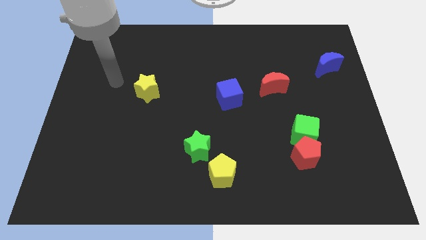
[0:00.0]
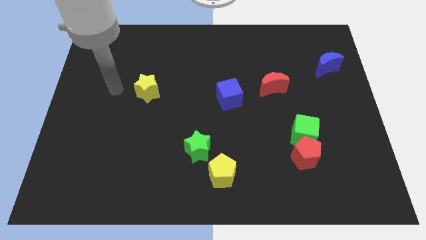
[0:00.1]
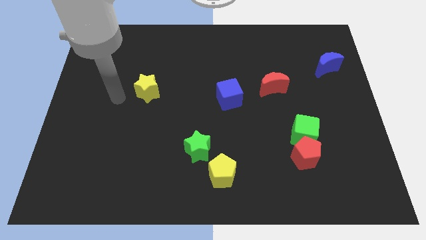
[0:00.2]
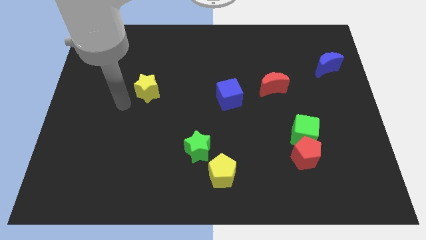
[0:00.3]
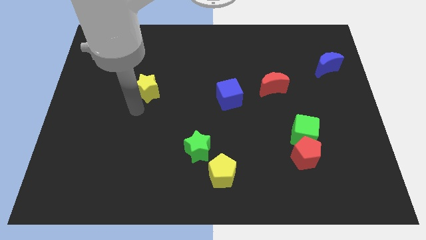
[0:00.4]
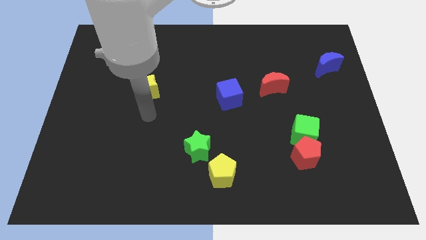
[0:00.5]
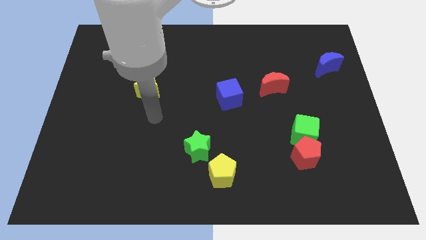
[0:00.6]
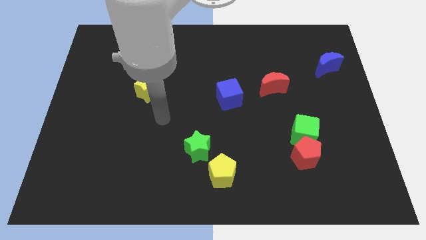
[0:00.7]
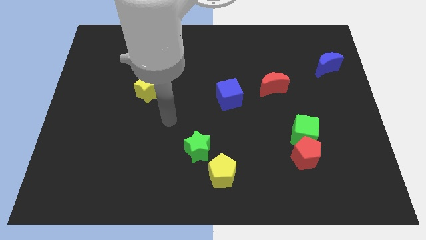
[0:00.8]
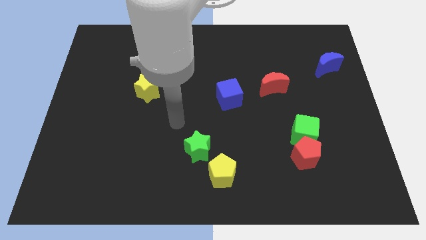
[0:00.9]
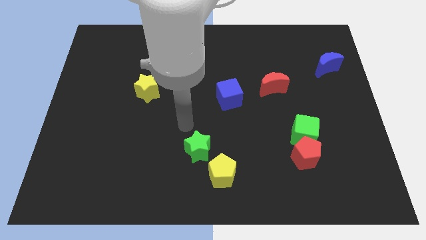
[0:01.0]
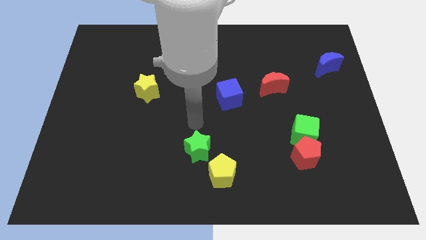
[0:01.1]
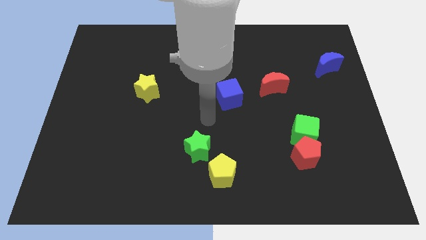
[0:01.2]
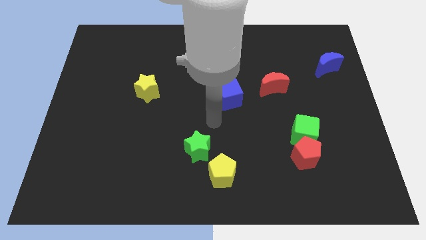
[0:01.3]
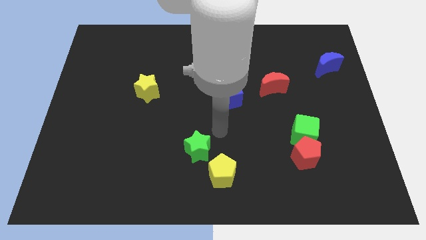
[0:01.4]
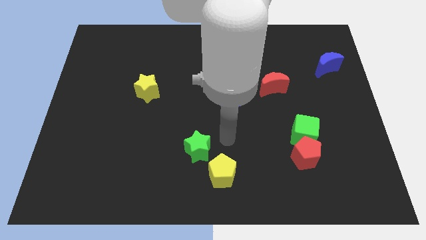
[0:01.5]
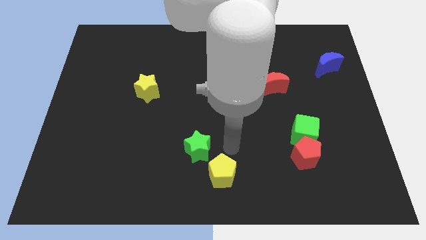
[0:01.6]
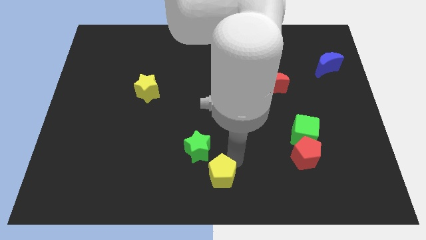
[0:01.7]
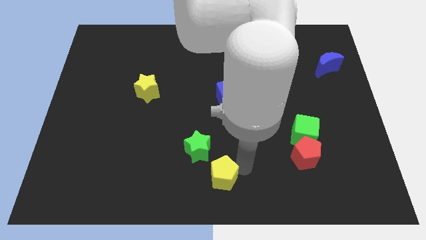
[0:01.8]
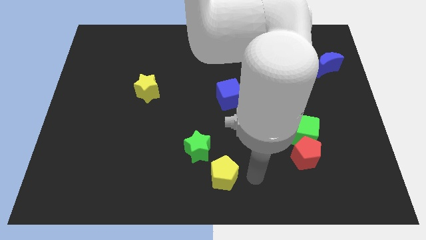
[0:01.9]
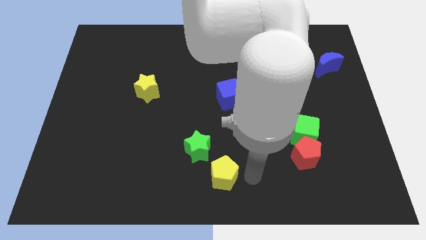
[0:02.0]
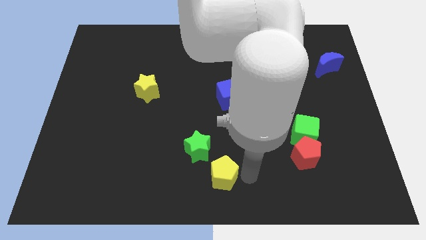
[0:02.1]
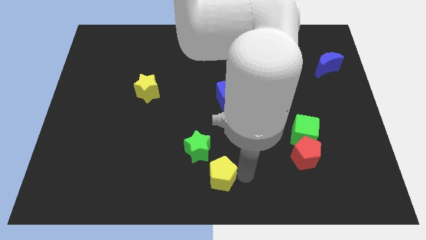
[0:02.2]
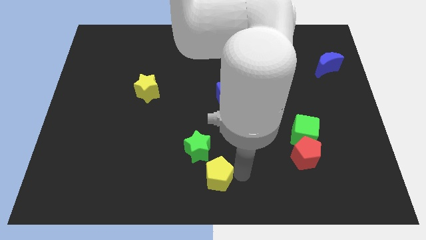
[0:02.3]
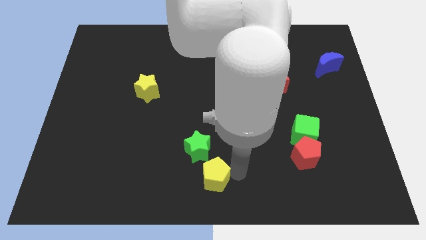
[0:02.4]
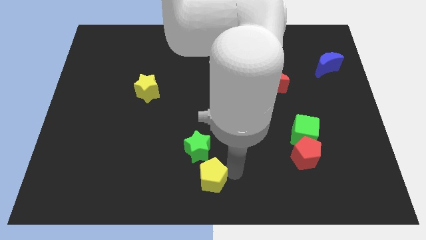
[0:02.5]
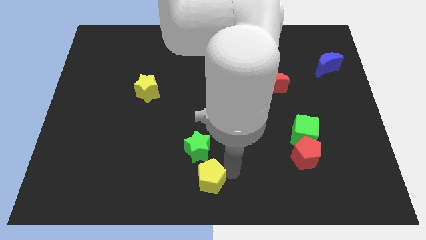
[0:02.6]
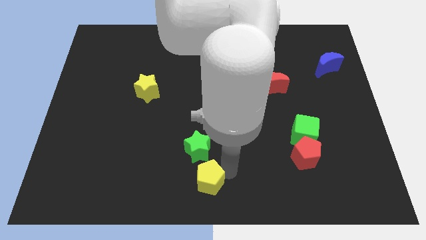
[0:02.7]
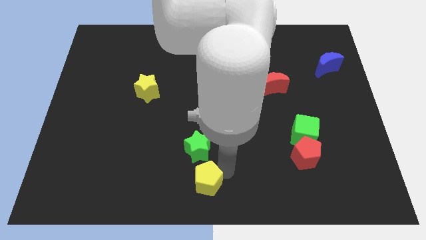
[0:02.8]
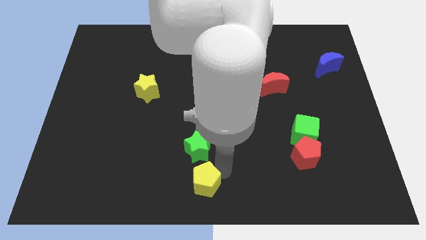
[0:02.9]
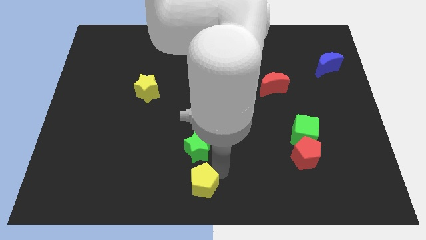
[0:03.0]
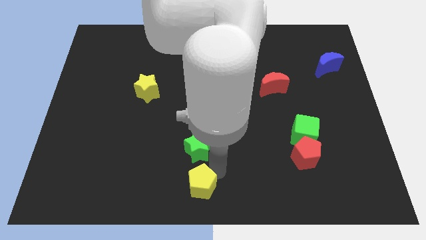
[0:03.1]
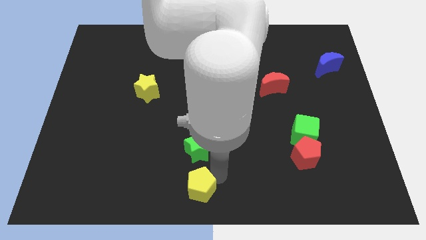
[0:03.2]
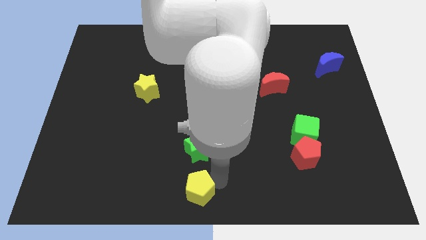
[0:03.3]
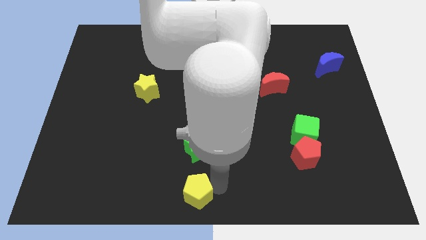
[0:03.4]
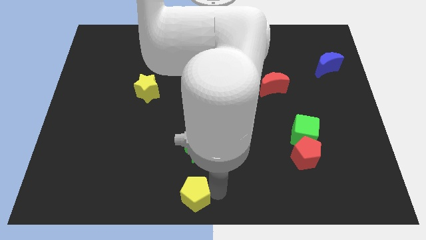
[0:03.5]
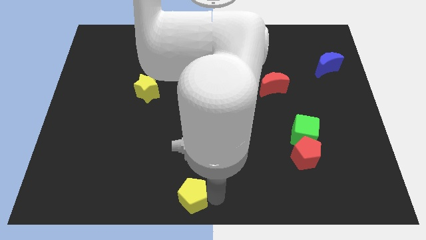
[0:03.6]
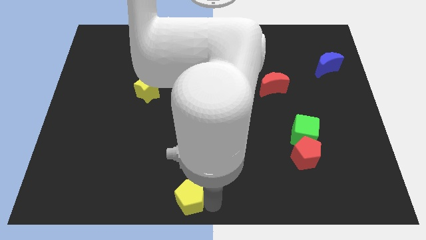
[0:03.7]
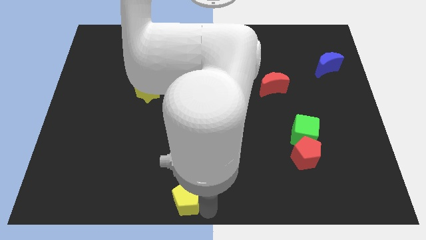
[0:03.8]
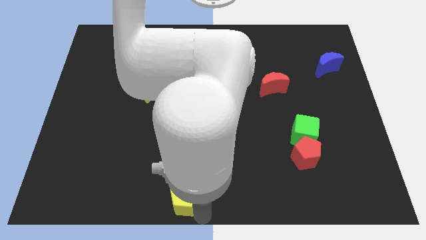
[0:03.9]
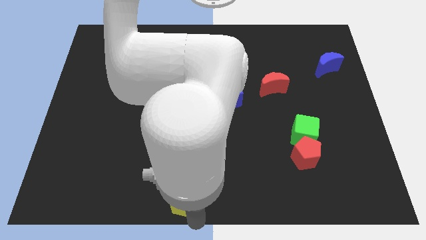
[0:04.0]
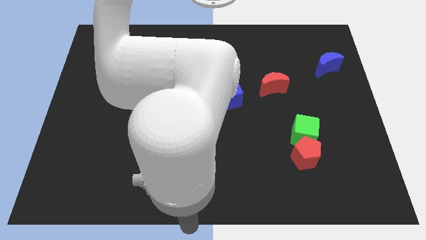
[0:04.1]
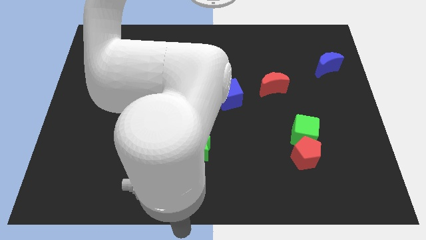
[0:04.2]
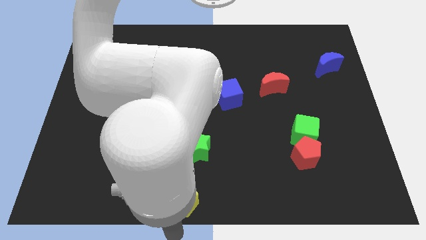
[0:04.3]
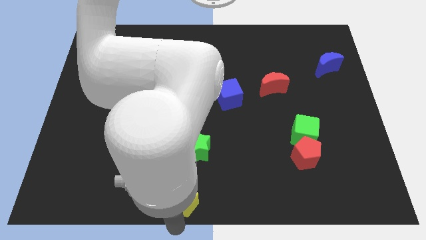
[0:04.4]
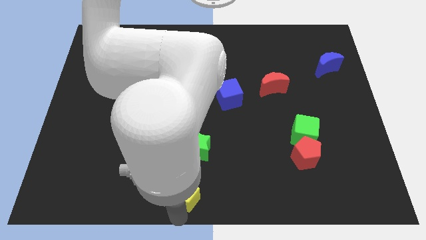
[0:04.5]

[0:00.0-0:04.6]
slide the yellow pentagon a little bit to the left

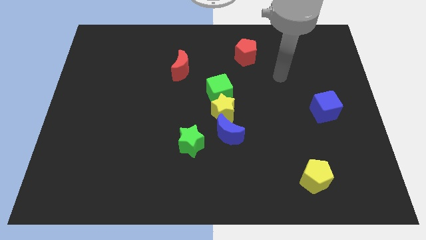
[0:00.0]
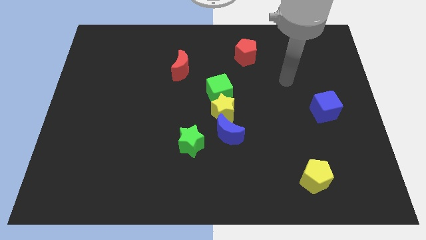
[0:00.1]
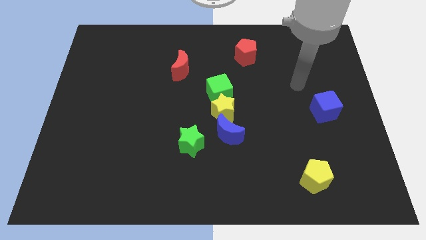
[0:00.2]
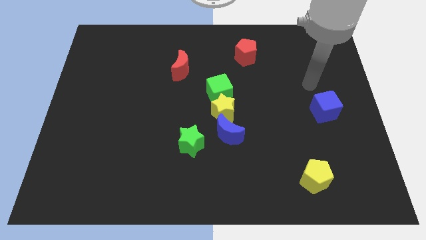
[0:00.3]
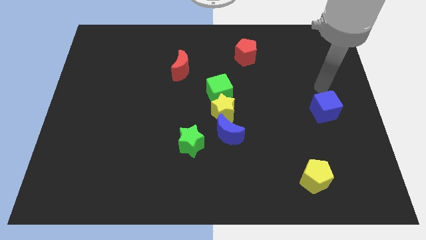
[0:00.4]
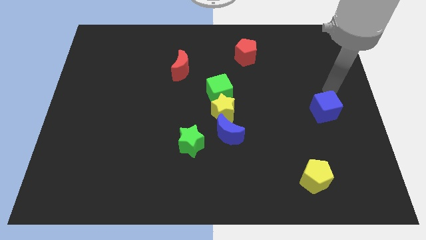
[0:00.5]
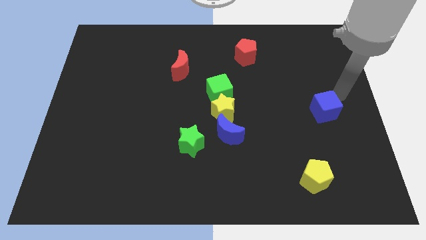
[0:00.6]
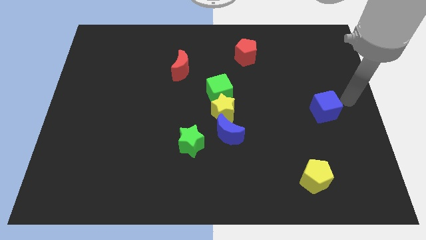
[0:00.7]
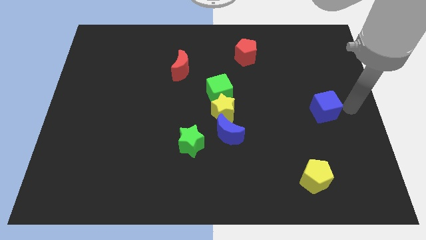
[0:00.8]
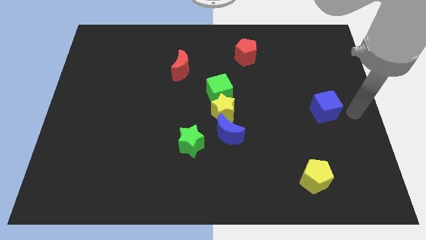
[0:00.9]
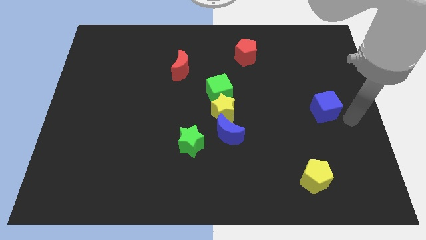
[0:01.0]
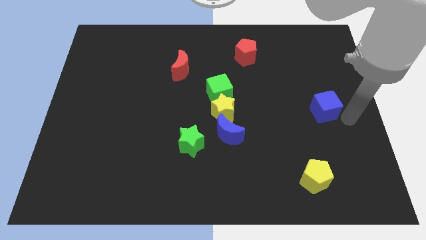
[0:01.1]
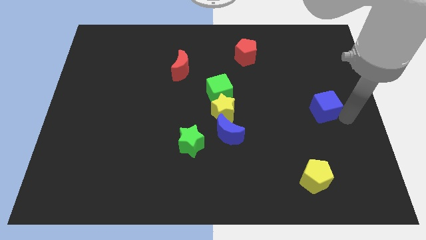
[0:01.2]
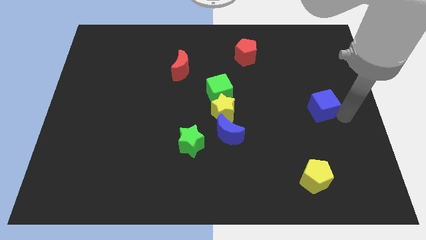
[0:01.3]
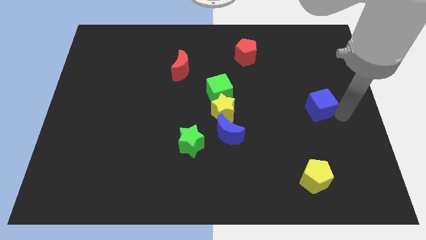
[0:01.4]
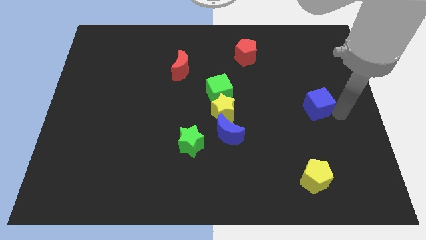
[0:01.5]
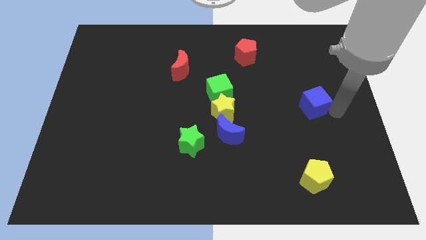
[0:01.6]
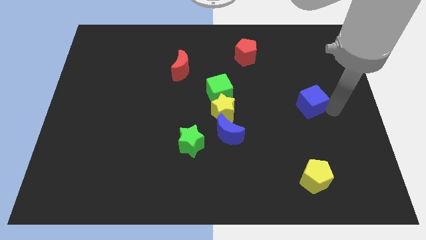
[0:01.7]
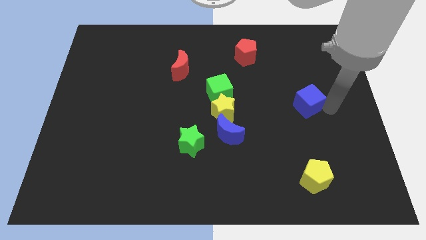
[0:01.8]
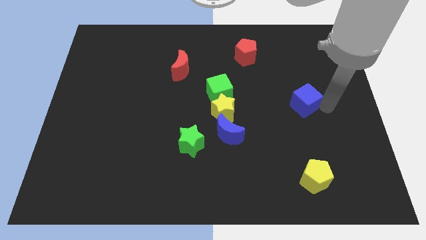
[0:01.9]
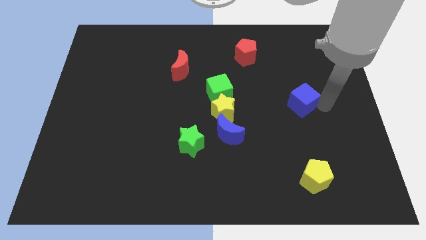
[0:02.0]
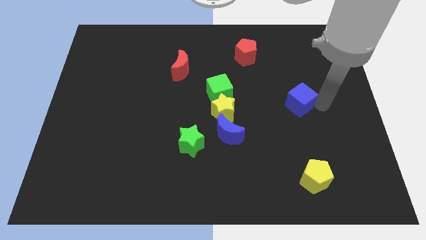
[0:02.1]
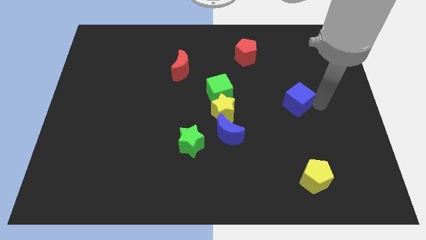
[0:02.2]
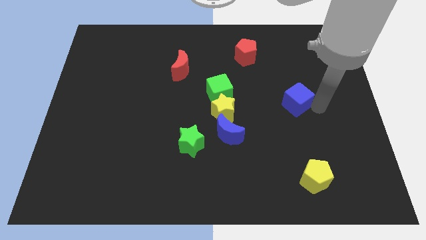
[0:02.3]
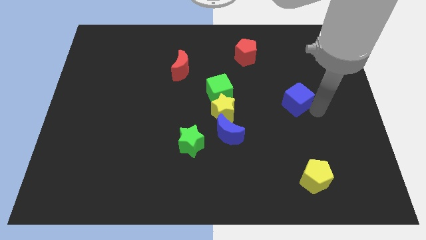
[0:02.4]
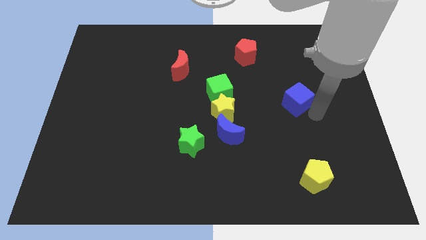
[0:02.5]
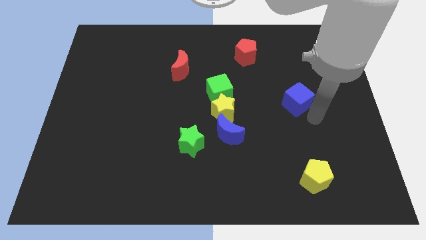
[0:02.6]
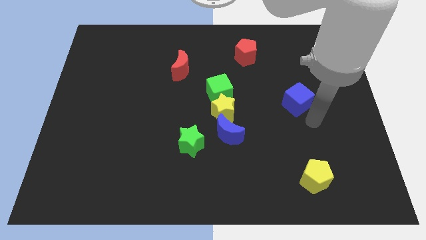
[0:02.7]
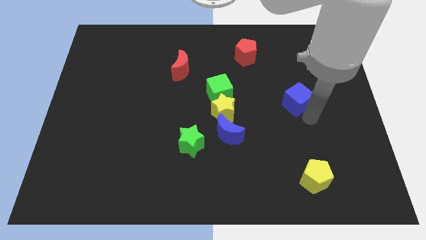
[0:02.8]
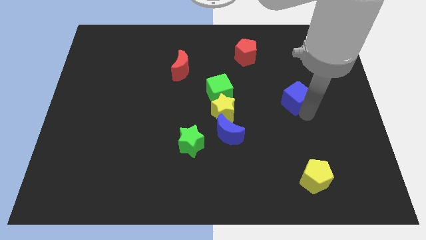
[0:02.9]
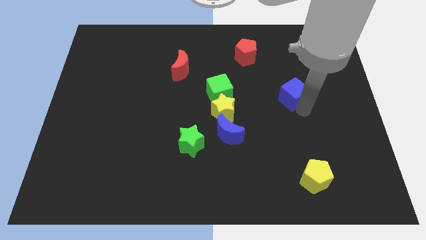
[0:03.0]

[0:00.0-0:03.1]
slide the blue cube a bit up and left diagonally

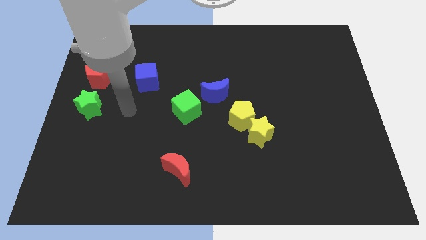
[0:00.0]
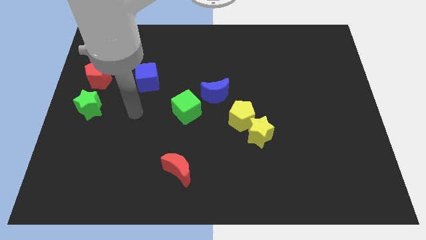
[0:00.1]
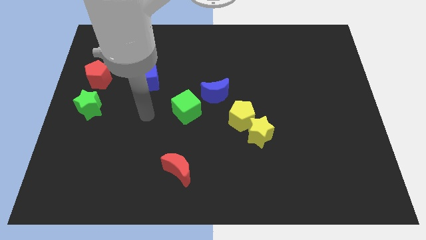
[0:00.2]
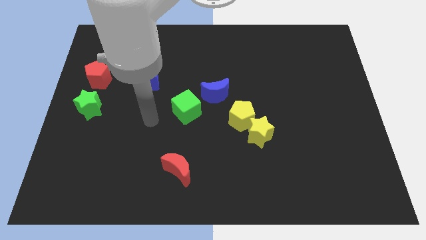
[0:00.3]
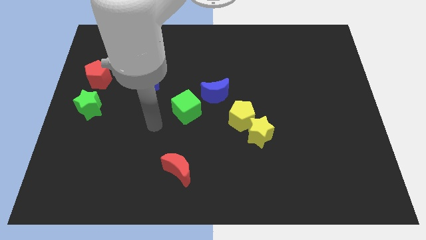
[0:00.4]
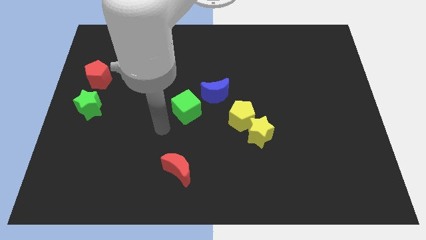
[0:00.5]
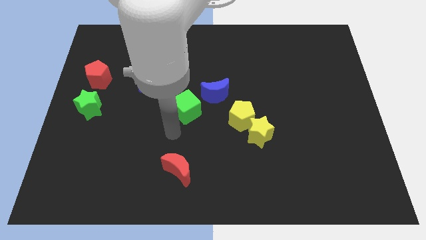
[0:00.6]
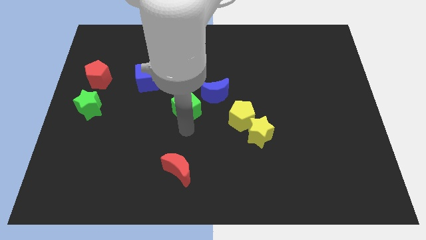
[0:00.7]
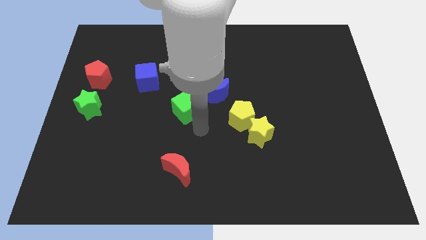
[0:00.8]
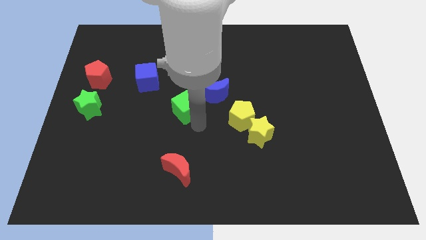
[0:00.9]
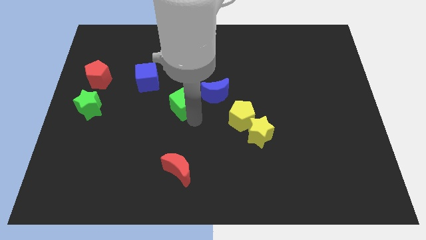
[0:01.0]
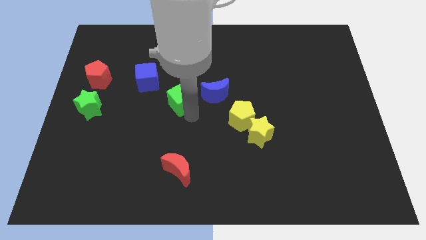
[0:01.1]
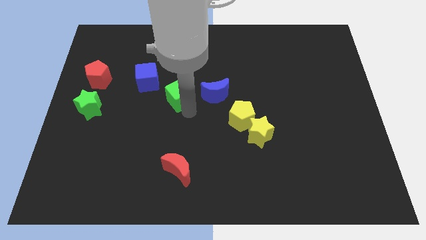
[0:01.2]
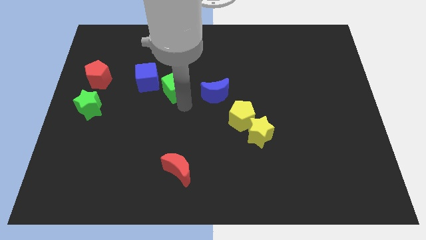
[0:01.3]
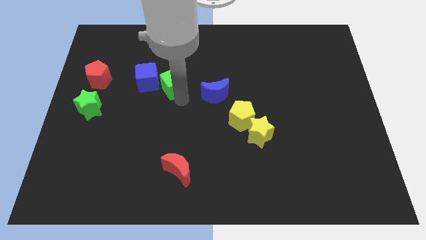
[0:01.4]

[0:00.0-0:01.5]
slightly push the green cube diagonally upwards and left
